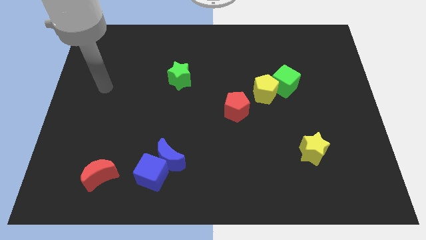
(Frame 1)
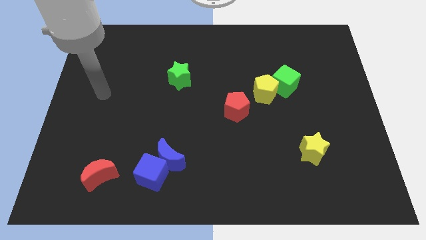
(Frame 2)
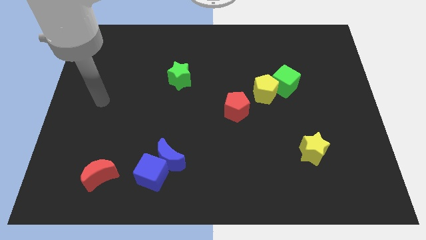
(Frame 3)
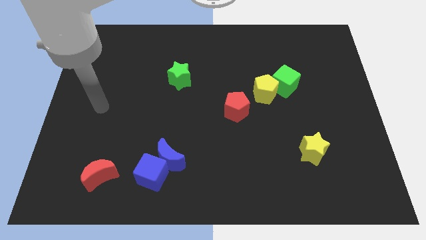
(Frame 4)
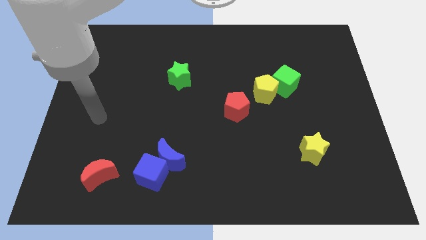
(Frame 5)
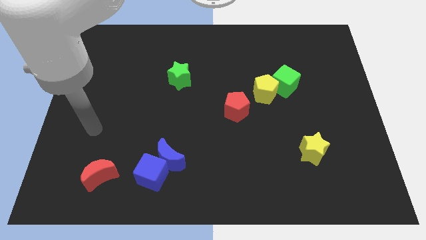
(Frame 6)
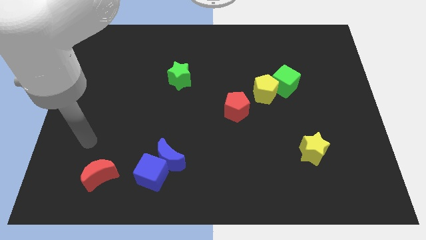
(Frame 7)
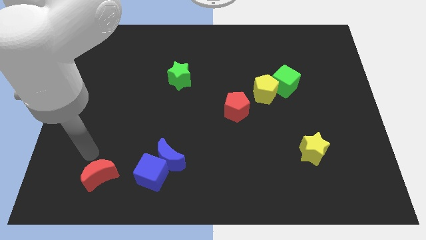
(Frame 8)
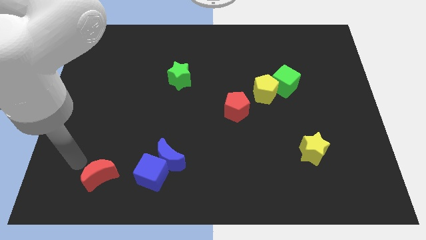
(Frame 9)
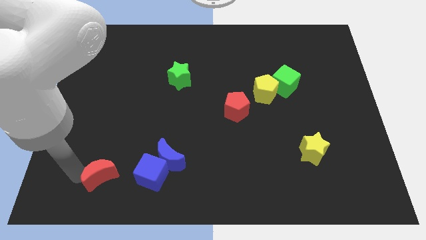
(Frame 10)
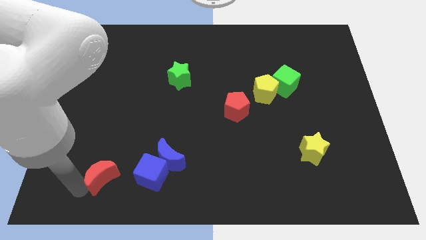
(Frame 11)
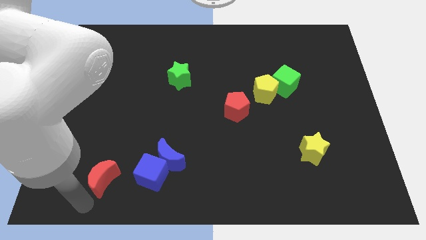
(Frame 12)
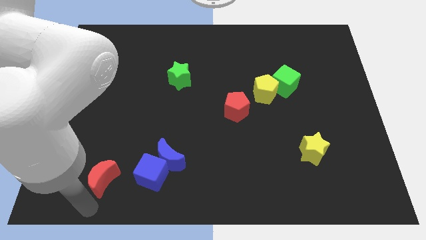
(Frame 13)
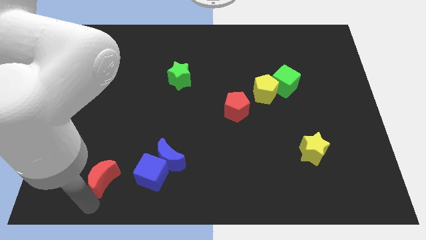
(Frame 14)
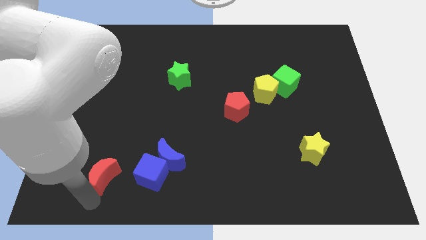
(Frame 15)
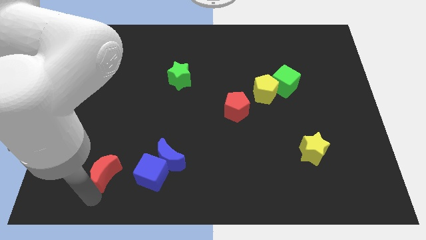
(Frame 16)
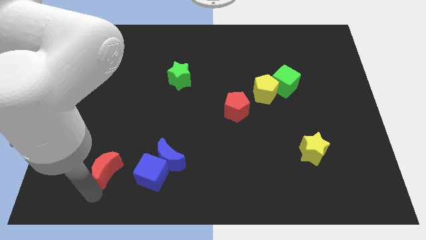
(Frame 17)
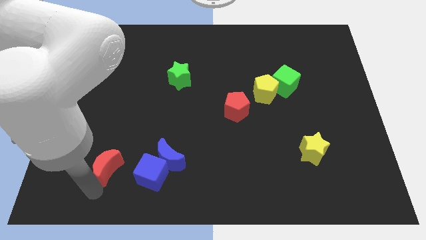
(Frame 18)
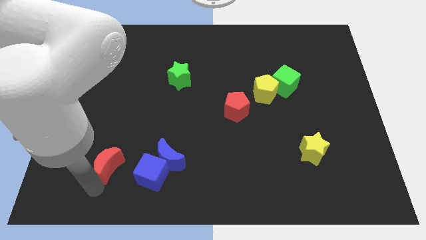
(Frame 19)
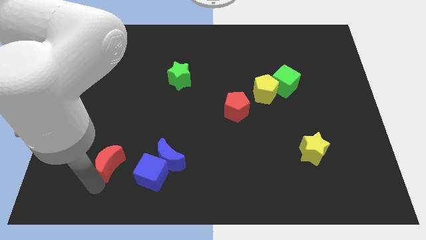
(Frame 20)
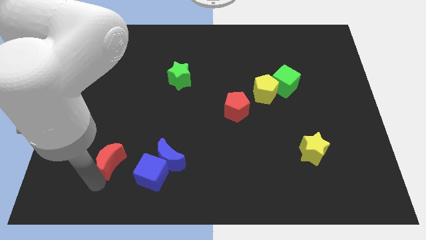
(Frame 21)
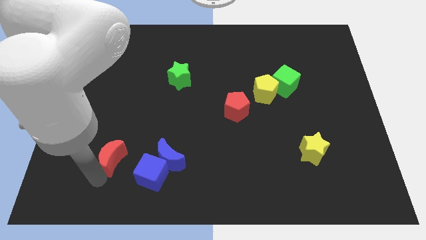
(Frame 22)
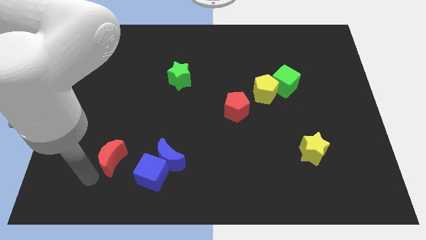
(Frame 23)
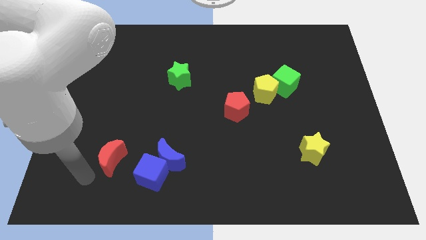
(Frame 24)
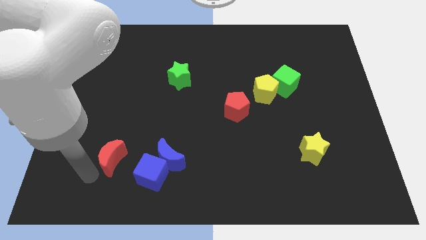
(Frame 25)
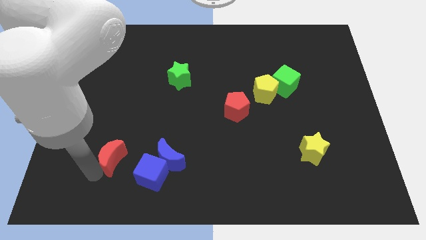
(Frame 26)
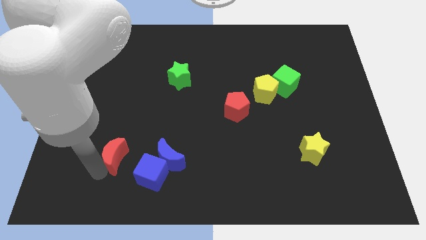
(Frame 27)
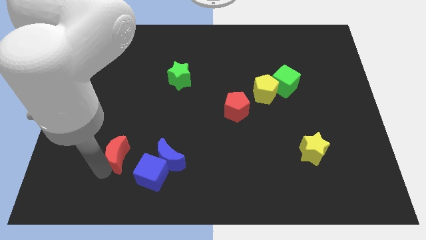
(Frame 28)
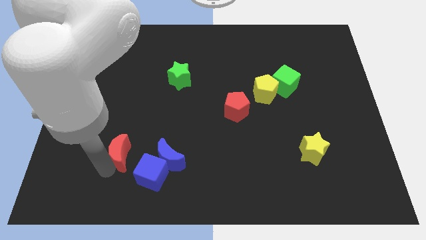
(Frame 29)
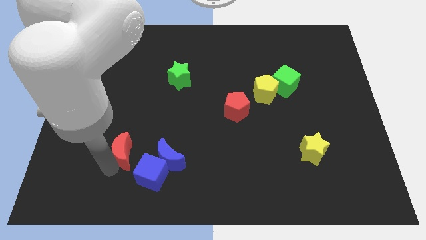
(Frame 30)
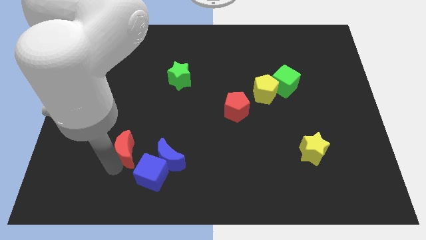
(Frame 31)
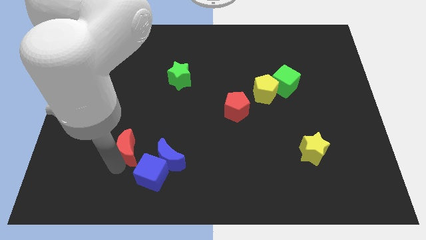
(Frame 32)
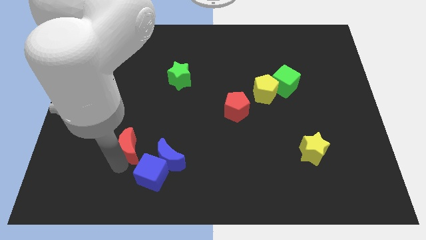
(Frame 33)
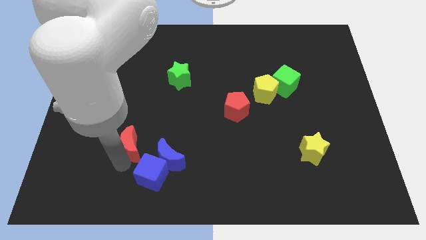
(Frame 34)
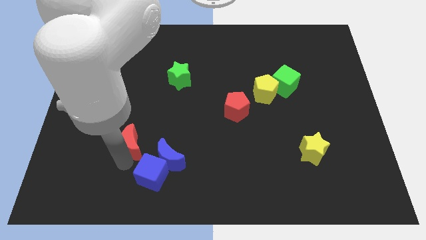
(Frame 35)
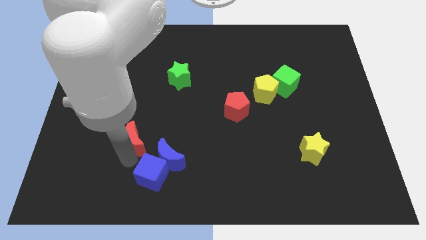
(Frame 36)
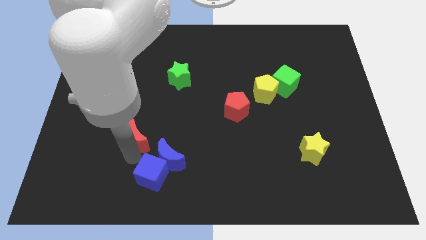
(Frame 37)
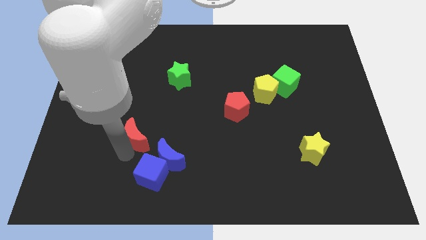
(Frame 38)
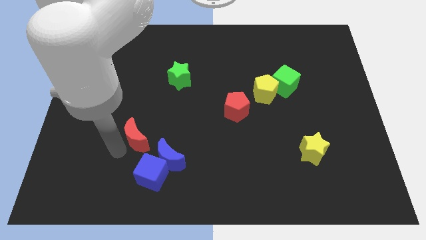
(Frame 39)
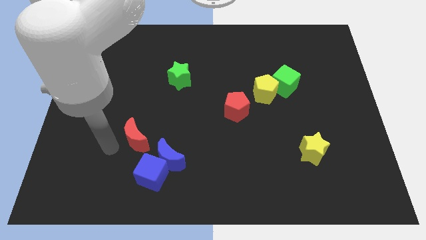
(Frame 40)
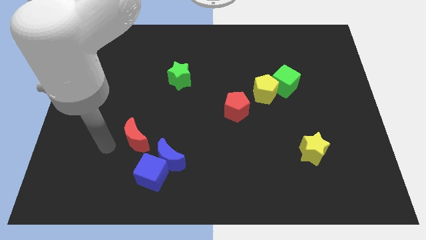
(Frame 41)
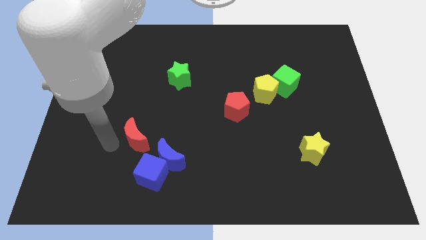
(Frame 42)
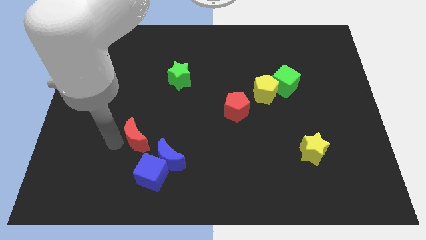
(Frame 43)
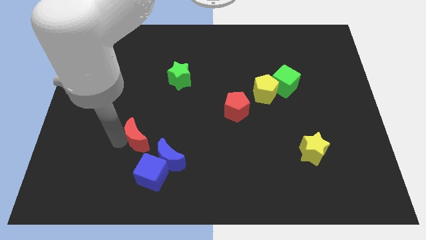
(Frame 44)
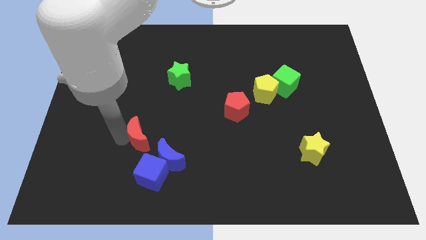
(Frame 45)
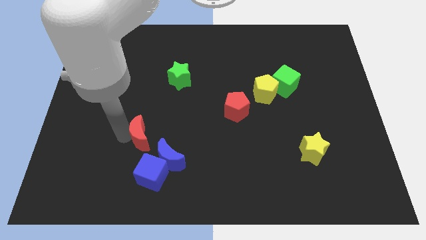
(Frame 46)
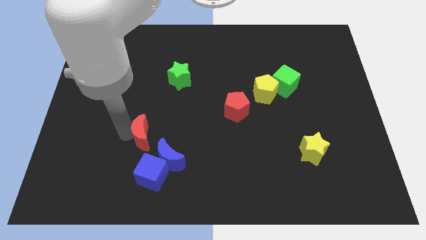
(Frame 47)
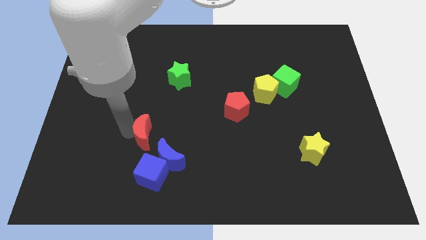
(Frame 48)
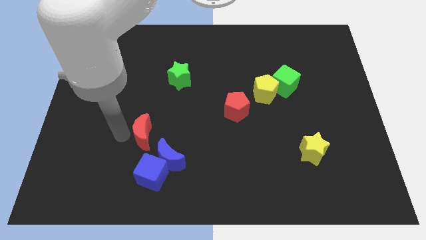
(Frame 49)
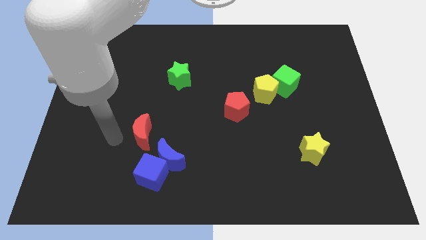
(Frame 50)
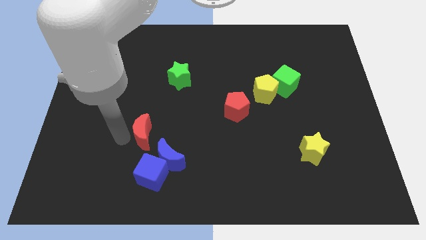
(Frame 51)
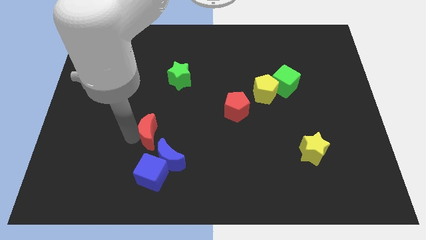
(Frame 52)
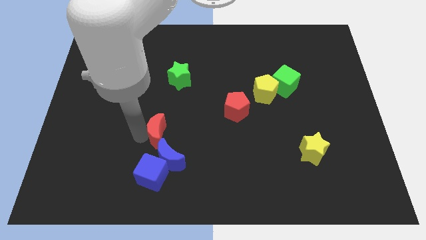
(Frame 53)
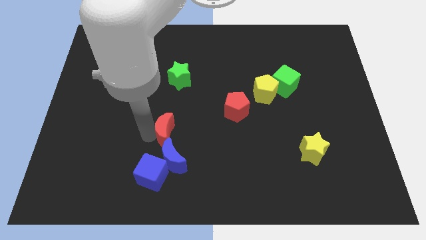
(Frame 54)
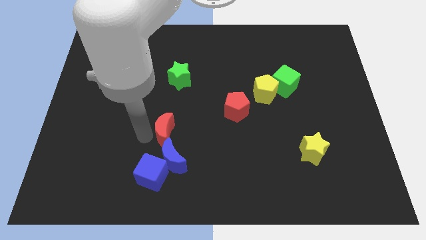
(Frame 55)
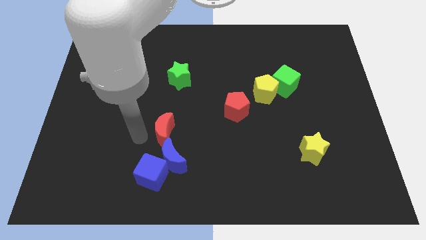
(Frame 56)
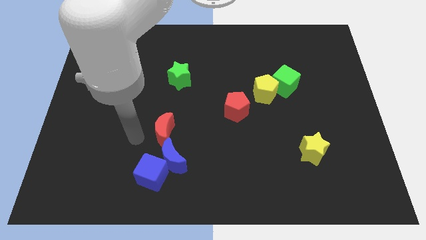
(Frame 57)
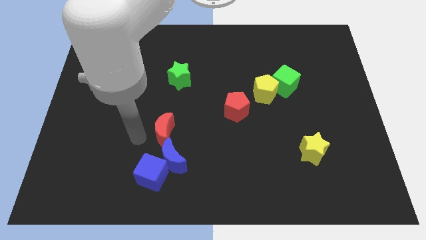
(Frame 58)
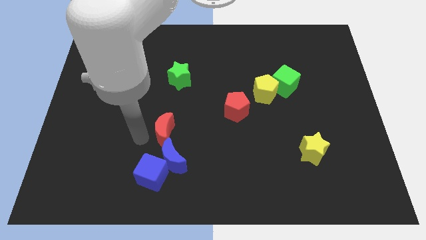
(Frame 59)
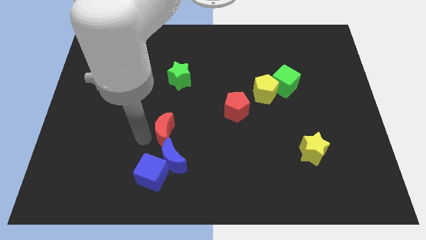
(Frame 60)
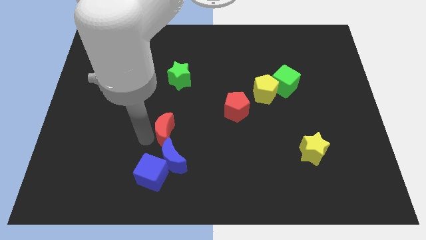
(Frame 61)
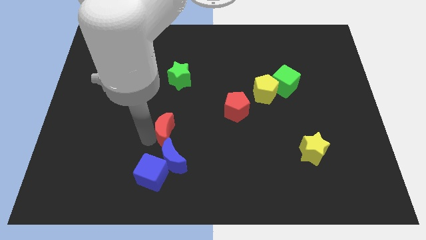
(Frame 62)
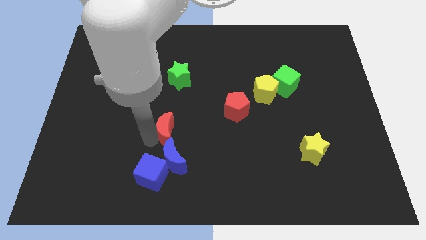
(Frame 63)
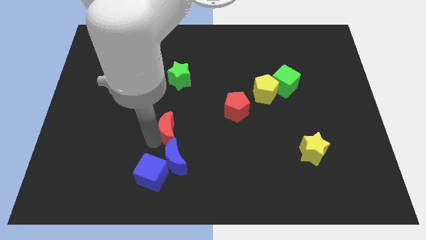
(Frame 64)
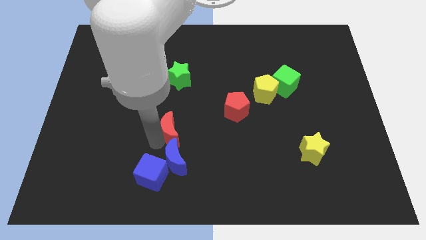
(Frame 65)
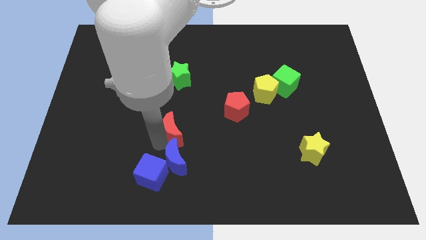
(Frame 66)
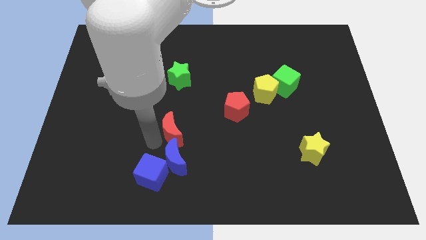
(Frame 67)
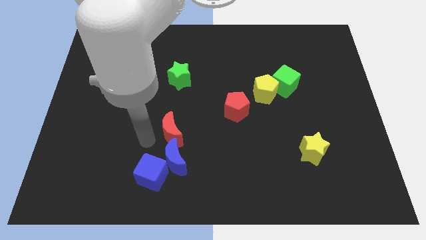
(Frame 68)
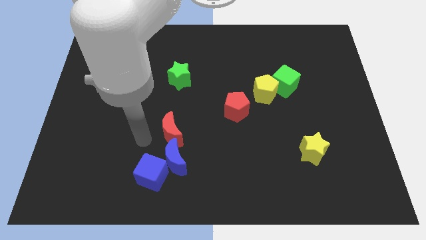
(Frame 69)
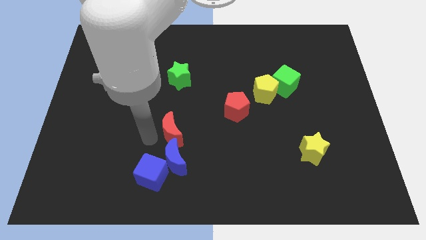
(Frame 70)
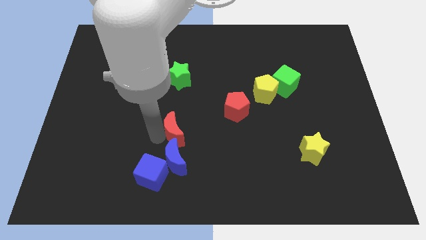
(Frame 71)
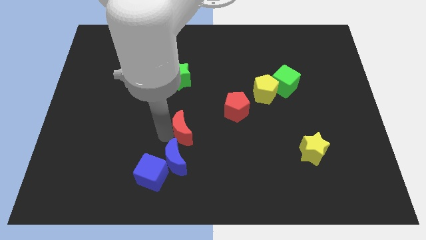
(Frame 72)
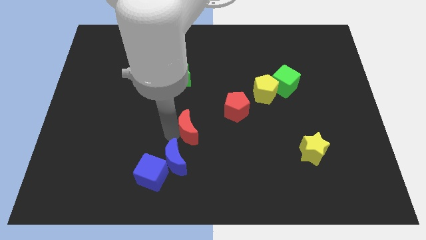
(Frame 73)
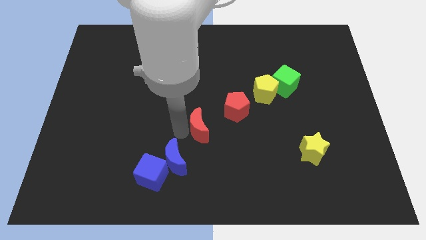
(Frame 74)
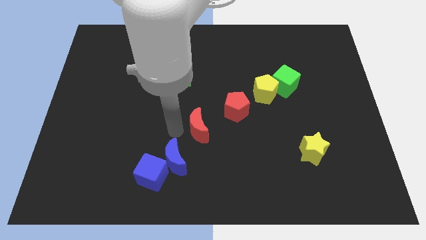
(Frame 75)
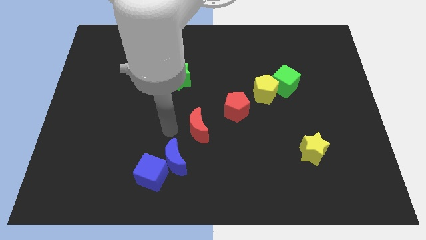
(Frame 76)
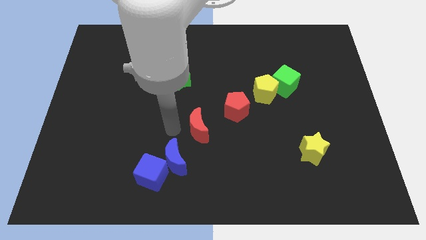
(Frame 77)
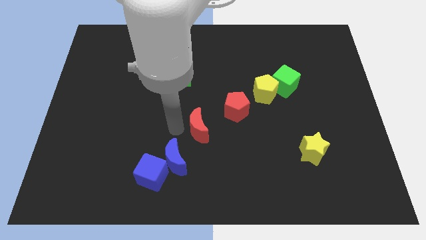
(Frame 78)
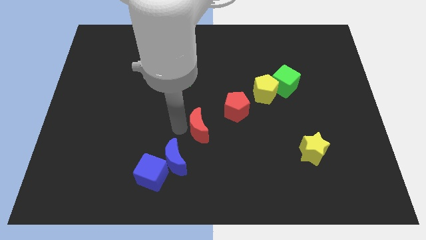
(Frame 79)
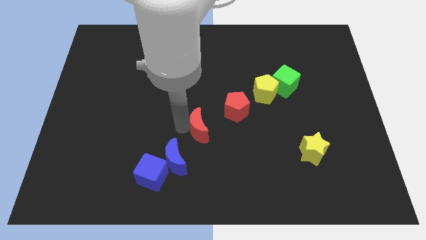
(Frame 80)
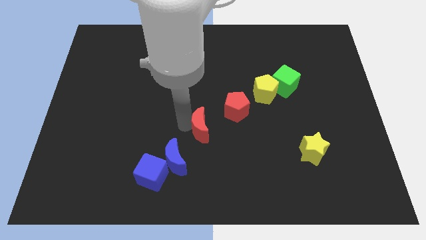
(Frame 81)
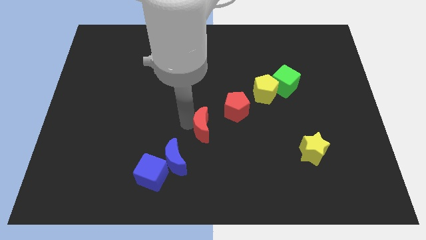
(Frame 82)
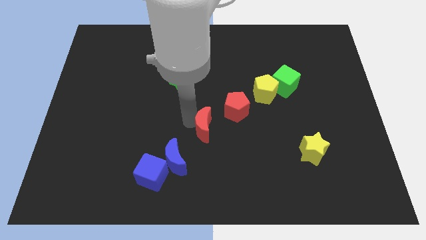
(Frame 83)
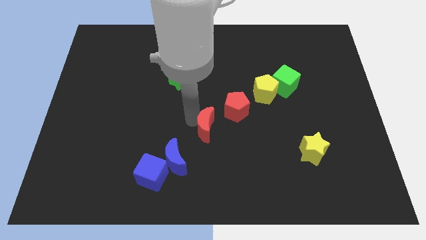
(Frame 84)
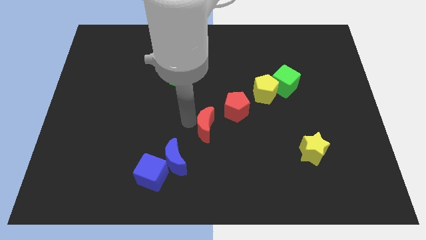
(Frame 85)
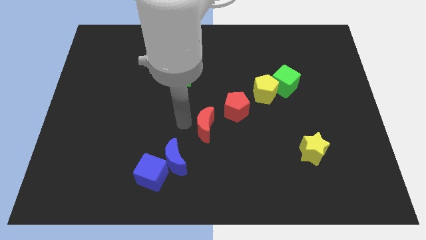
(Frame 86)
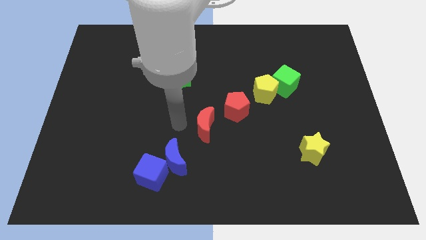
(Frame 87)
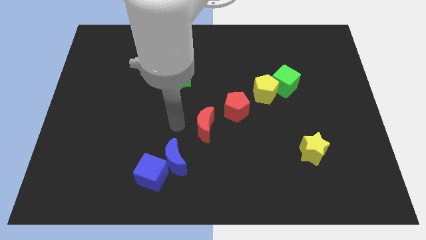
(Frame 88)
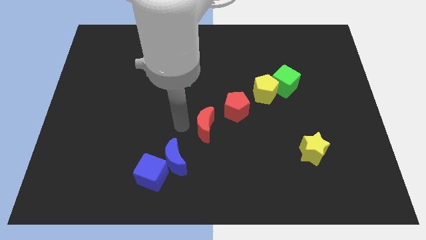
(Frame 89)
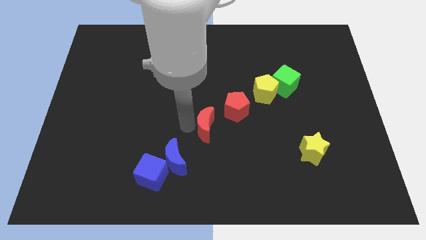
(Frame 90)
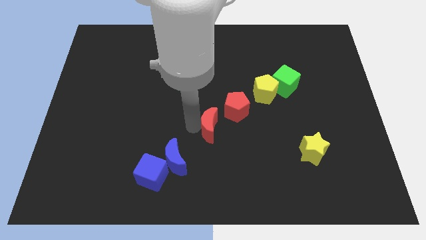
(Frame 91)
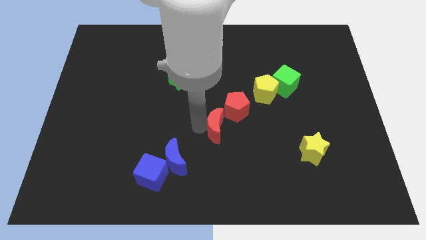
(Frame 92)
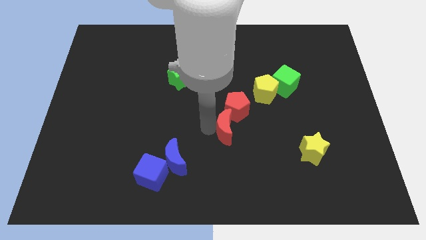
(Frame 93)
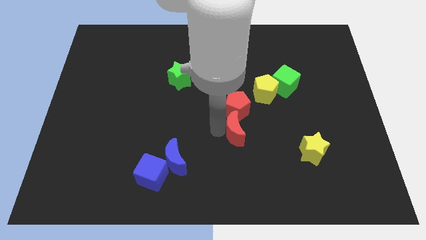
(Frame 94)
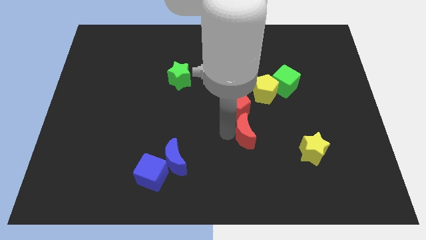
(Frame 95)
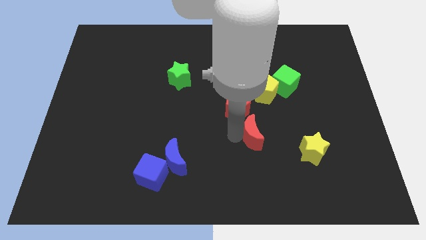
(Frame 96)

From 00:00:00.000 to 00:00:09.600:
move the red moon below the yellow pentagon
